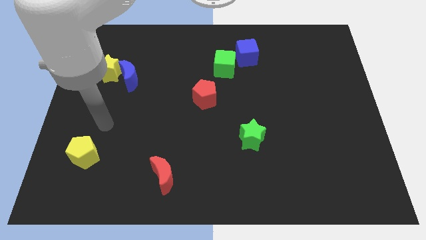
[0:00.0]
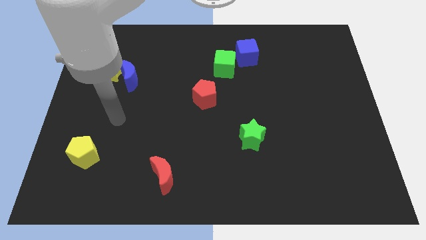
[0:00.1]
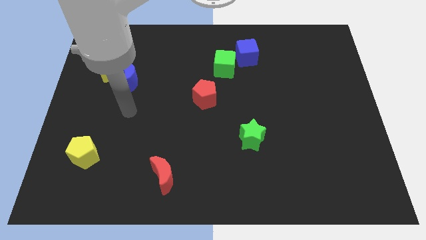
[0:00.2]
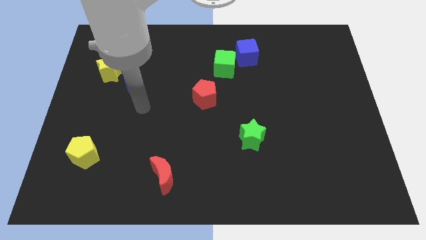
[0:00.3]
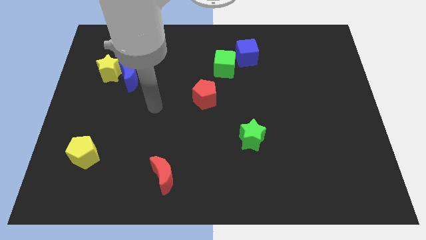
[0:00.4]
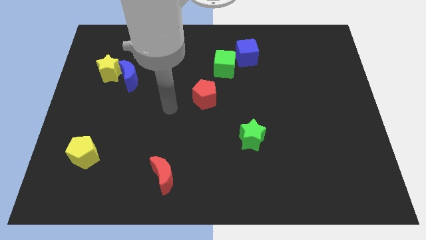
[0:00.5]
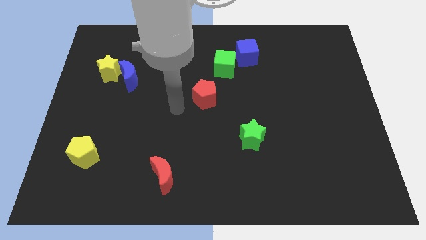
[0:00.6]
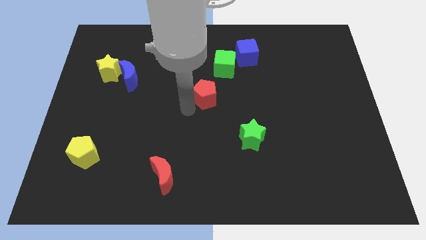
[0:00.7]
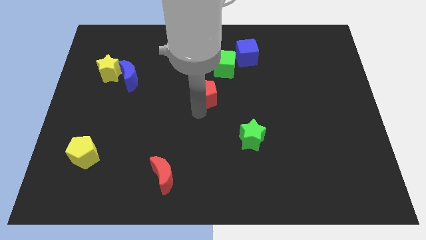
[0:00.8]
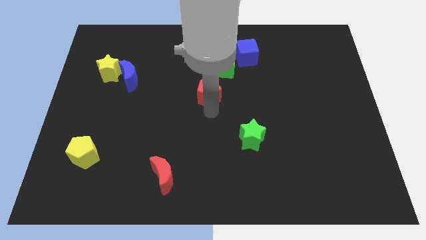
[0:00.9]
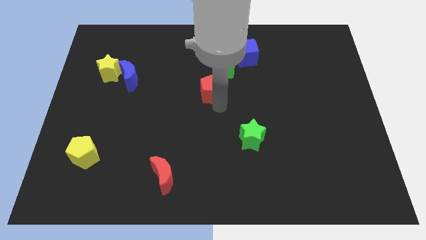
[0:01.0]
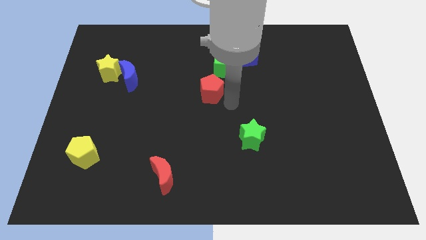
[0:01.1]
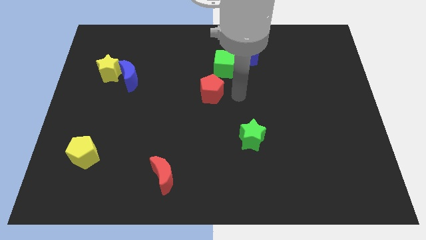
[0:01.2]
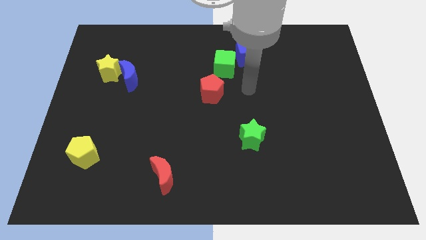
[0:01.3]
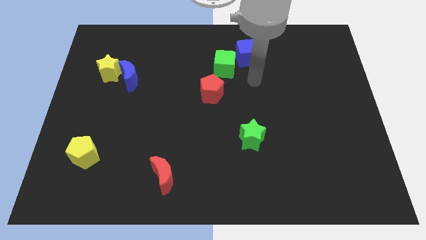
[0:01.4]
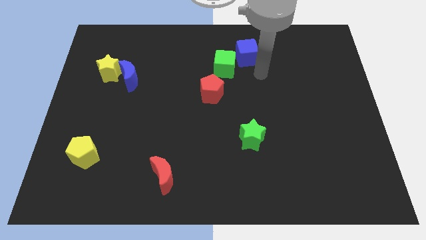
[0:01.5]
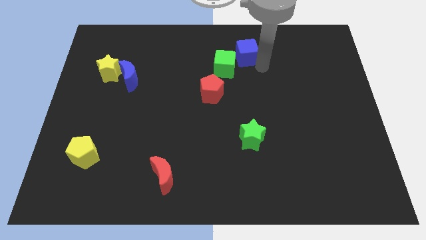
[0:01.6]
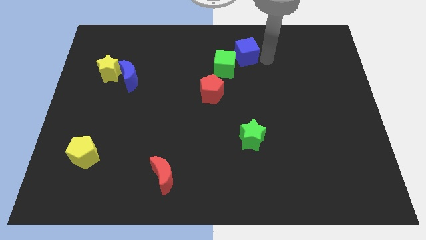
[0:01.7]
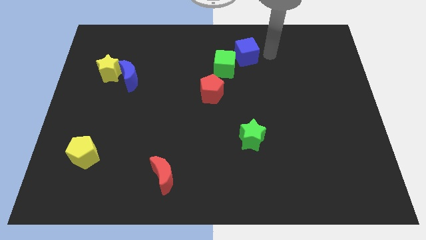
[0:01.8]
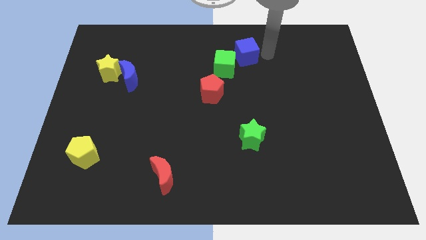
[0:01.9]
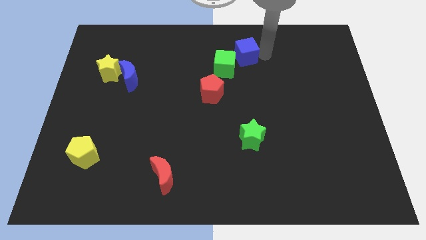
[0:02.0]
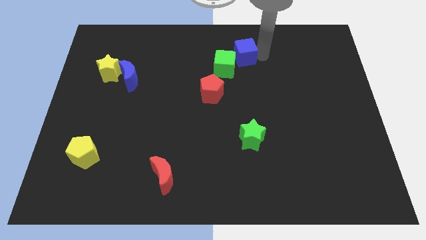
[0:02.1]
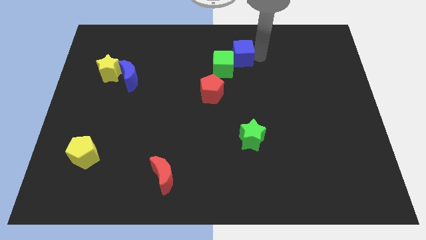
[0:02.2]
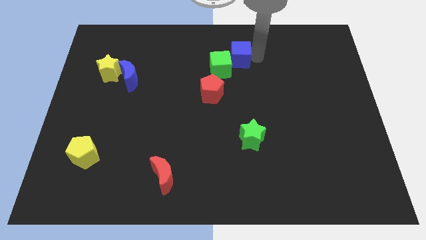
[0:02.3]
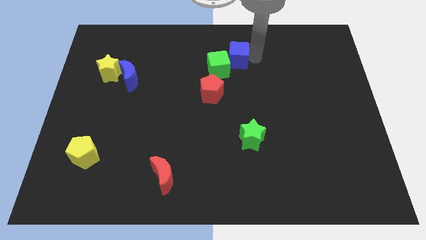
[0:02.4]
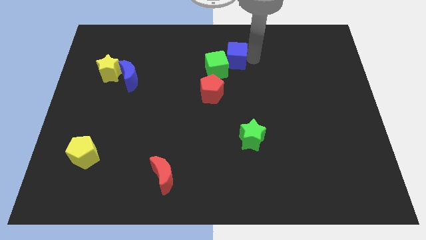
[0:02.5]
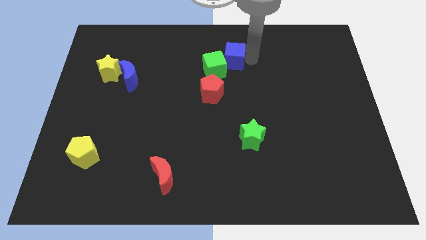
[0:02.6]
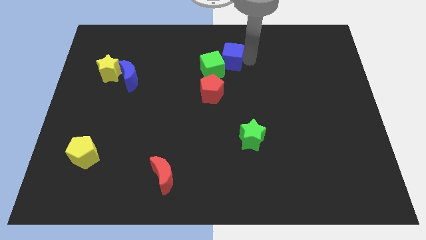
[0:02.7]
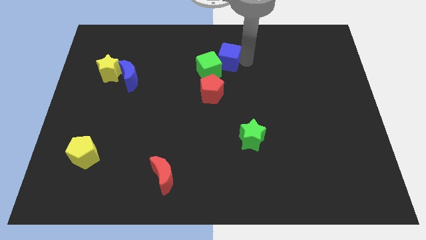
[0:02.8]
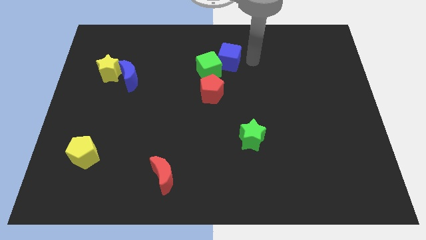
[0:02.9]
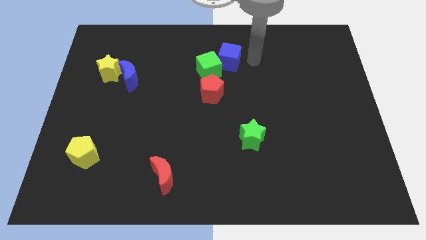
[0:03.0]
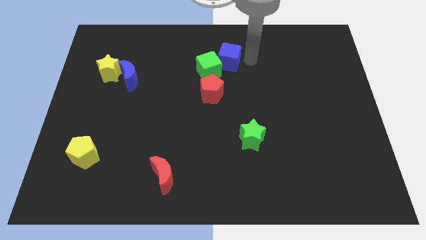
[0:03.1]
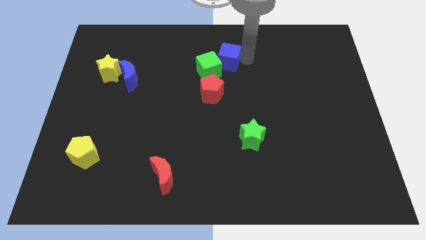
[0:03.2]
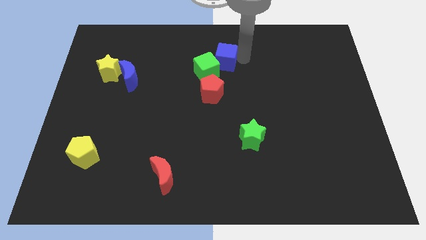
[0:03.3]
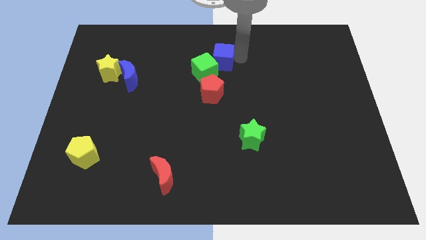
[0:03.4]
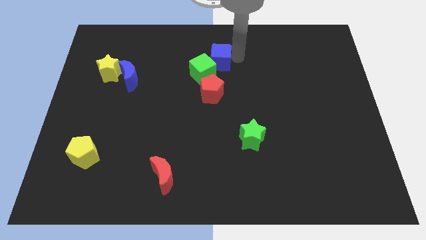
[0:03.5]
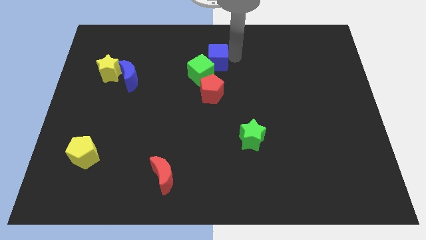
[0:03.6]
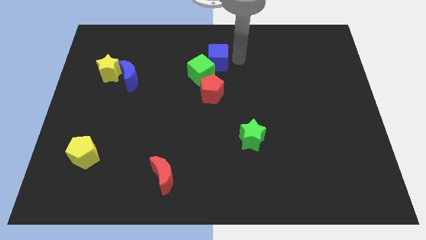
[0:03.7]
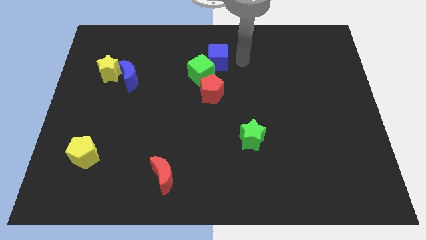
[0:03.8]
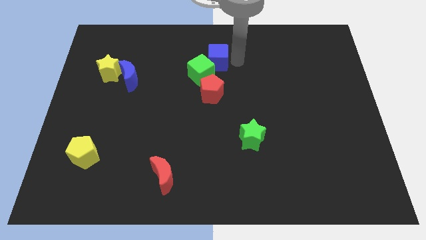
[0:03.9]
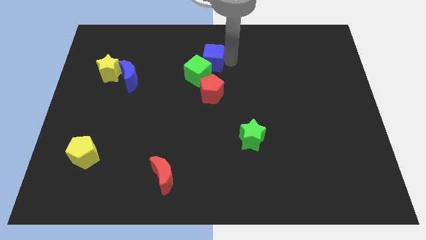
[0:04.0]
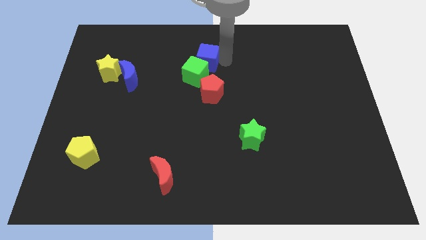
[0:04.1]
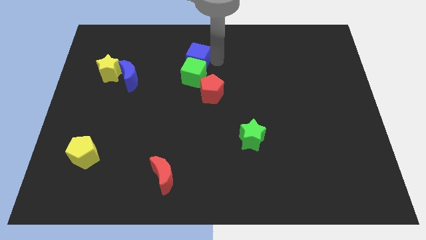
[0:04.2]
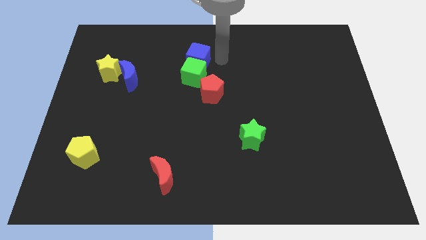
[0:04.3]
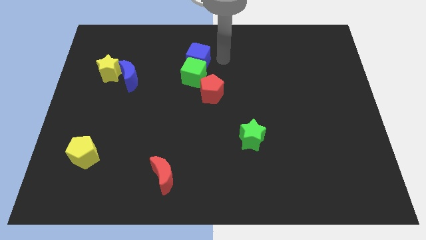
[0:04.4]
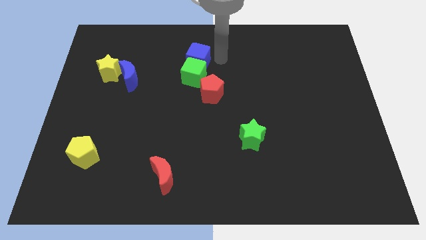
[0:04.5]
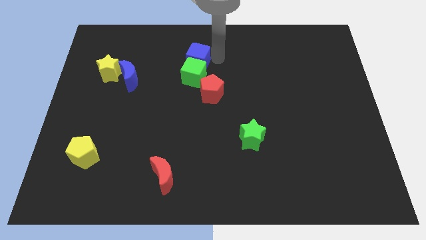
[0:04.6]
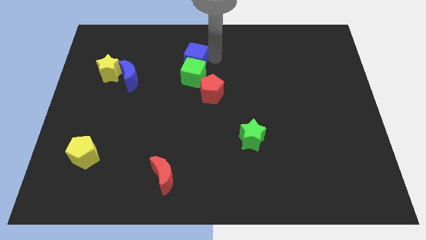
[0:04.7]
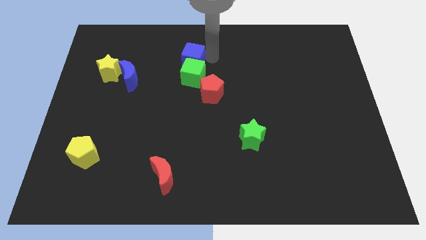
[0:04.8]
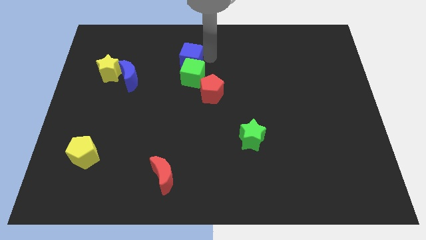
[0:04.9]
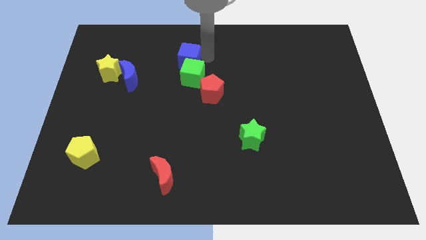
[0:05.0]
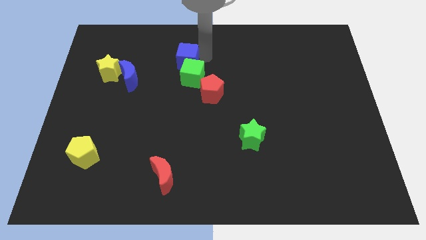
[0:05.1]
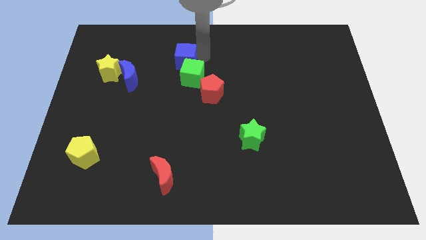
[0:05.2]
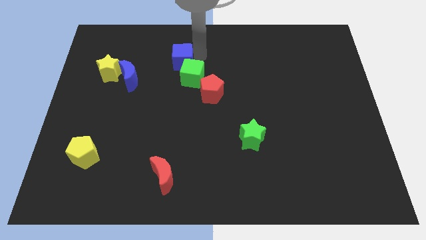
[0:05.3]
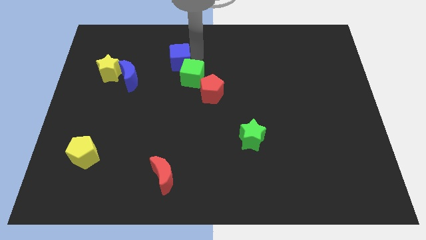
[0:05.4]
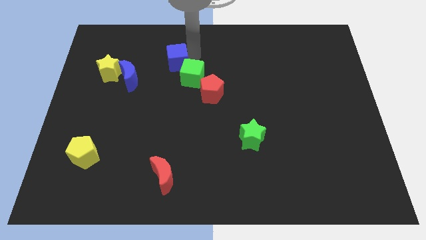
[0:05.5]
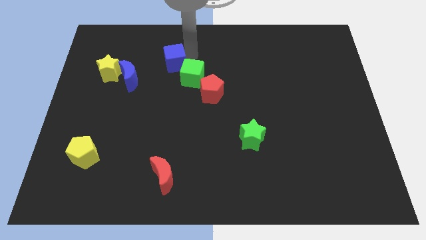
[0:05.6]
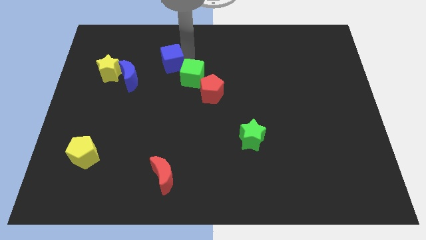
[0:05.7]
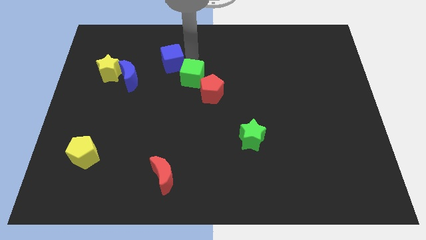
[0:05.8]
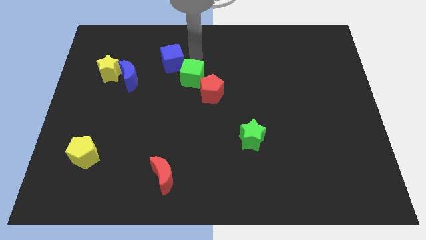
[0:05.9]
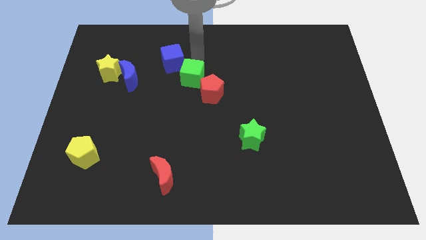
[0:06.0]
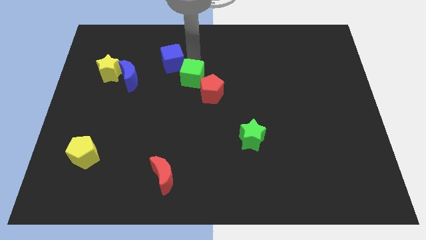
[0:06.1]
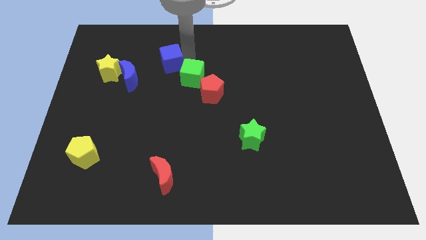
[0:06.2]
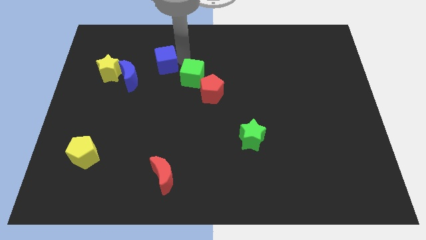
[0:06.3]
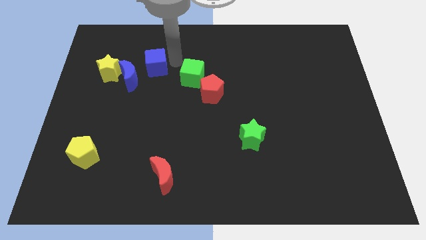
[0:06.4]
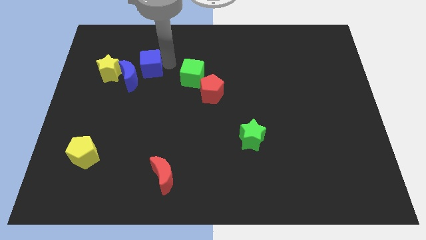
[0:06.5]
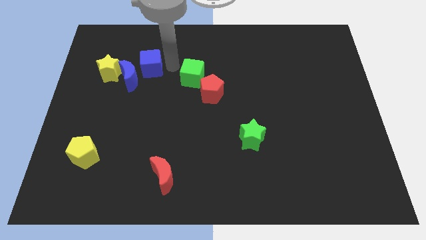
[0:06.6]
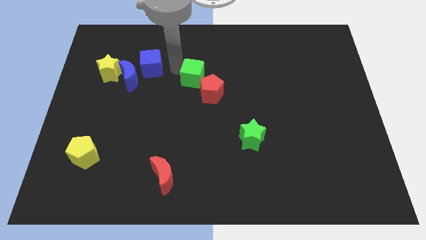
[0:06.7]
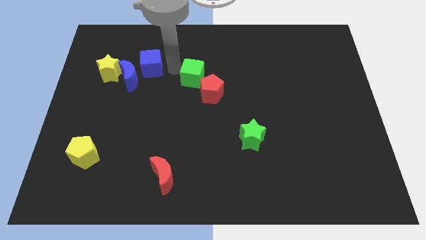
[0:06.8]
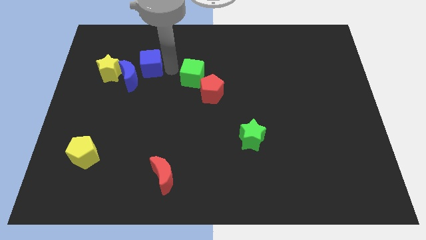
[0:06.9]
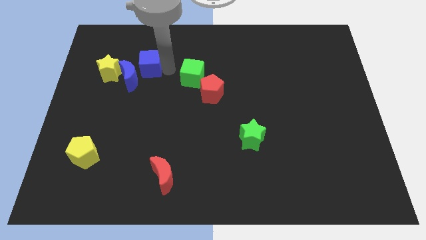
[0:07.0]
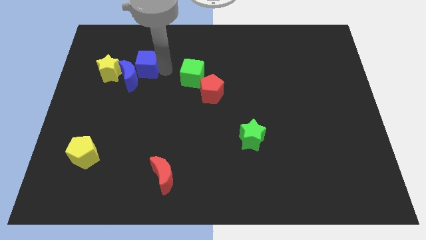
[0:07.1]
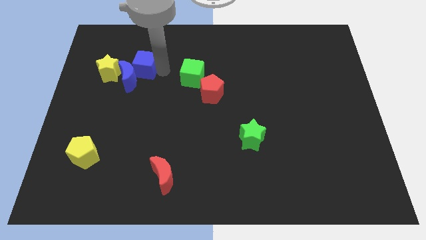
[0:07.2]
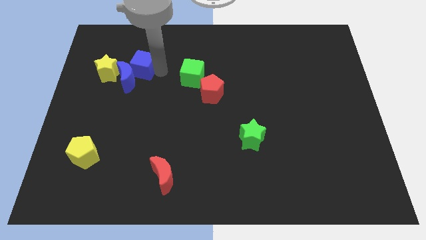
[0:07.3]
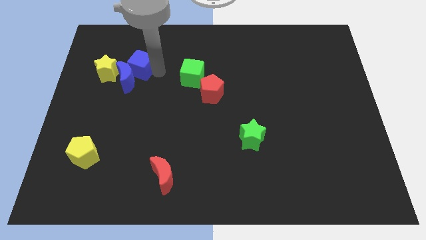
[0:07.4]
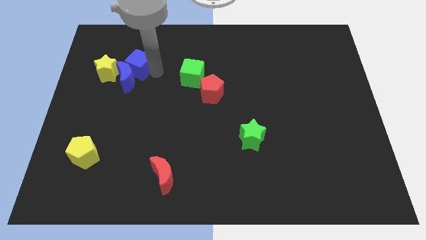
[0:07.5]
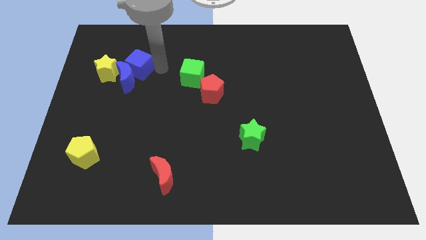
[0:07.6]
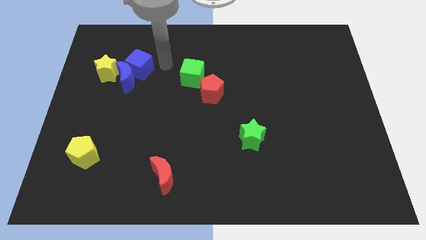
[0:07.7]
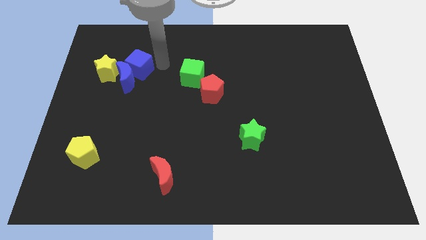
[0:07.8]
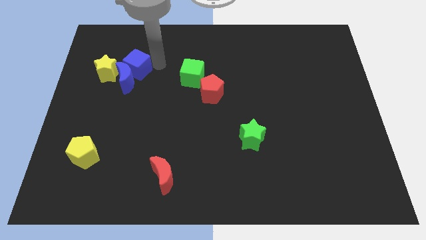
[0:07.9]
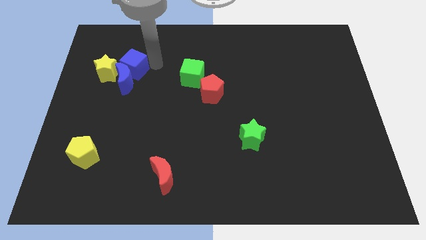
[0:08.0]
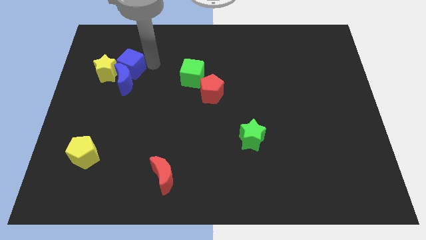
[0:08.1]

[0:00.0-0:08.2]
push the blue cube to the yellow star
